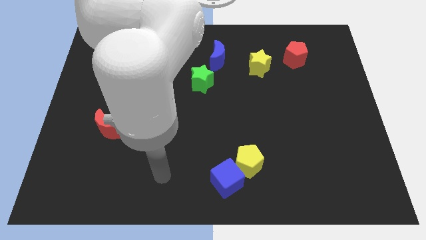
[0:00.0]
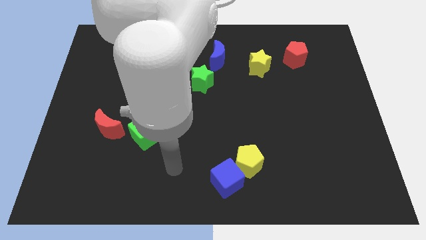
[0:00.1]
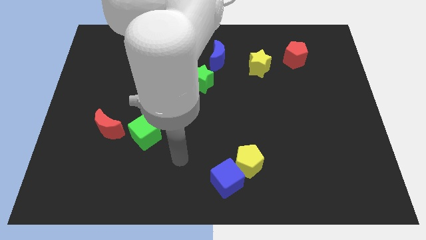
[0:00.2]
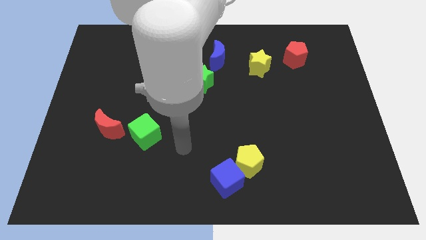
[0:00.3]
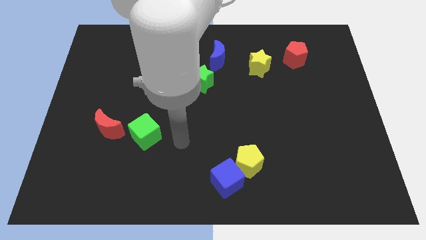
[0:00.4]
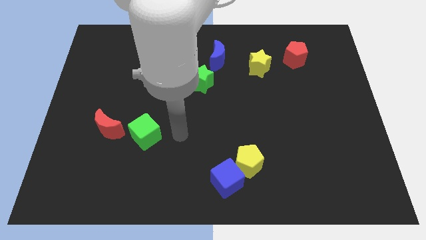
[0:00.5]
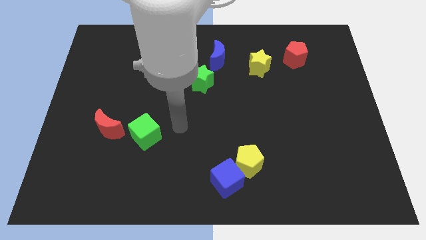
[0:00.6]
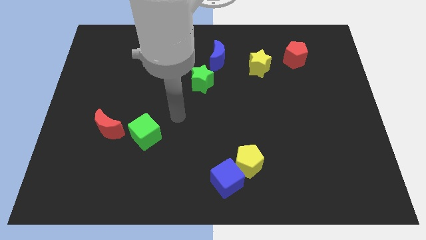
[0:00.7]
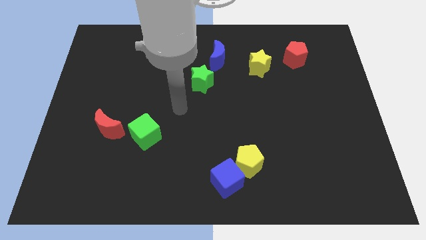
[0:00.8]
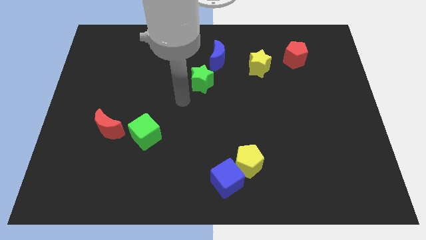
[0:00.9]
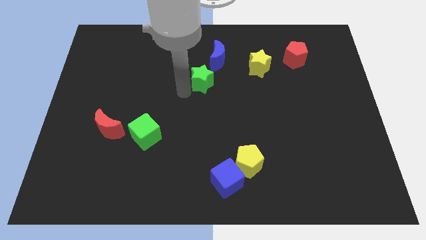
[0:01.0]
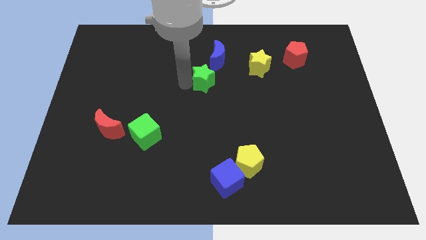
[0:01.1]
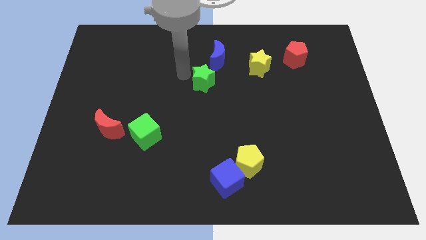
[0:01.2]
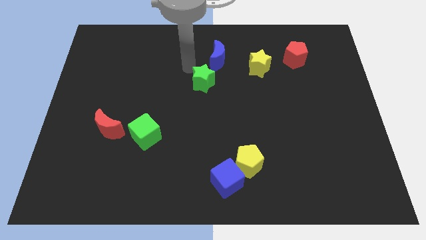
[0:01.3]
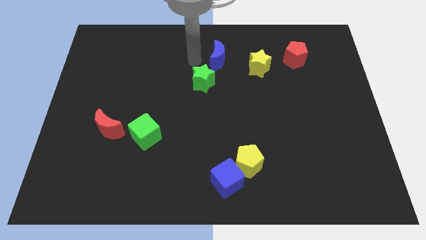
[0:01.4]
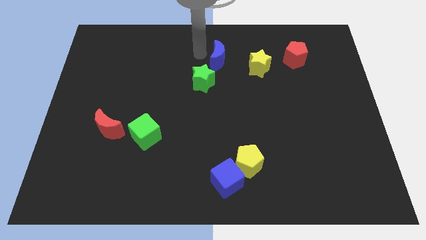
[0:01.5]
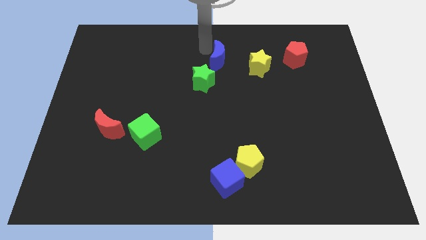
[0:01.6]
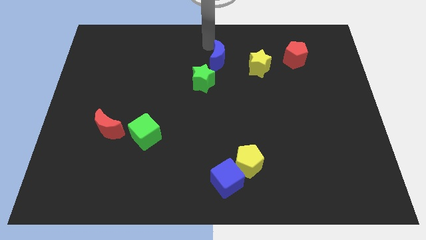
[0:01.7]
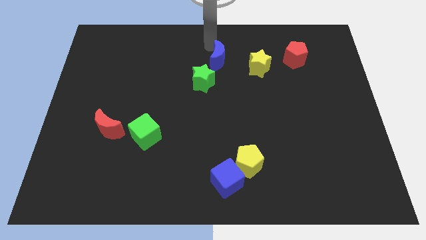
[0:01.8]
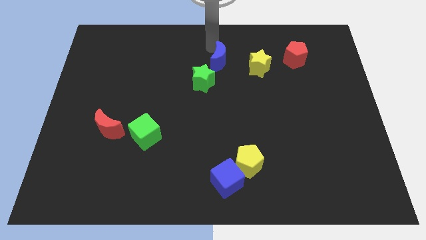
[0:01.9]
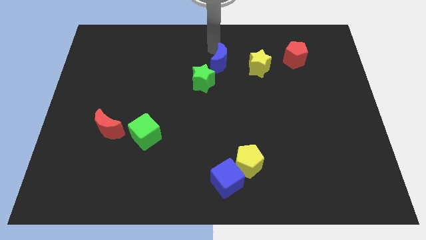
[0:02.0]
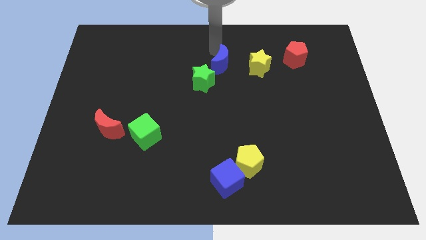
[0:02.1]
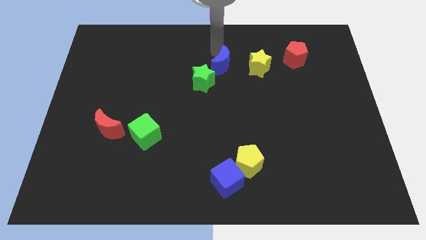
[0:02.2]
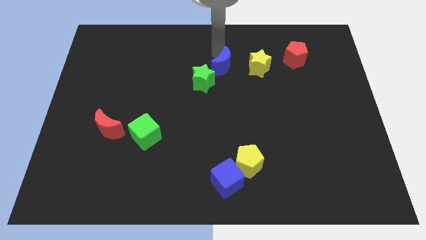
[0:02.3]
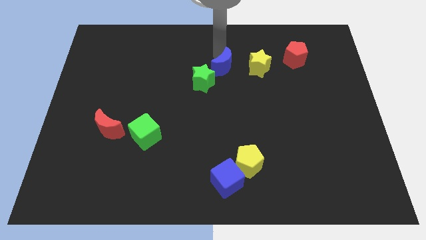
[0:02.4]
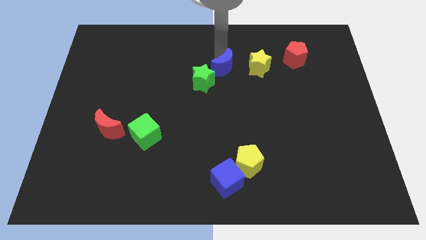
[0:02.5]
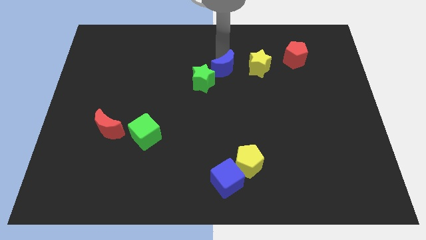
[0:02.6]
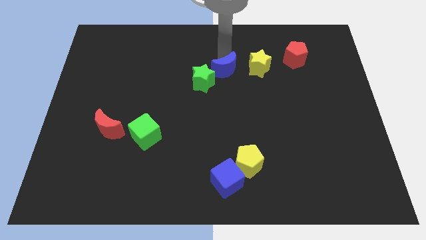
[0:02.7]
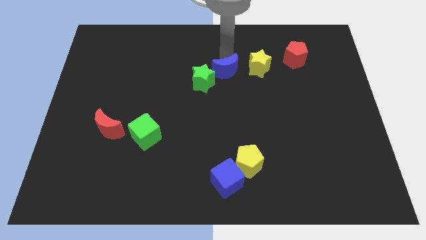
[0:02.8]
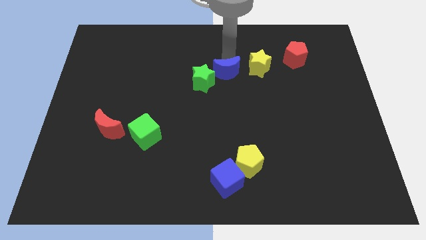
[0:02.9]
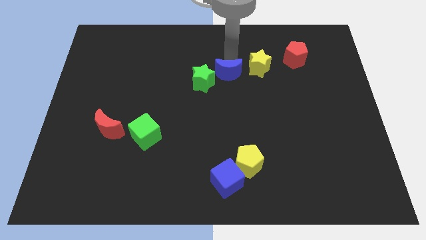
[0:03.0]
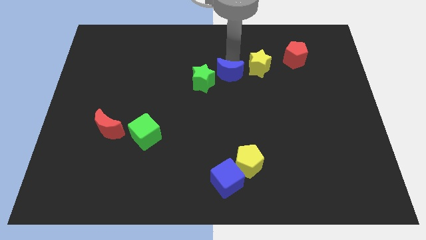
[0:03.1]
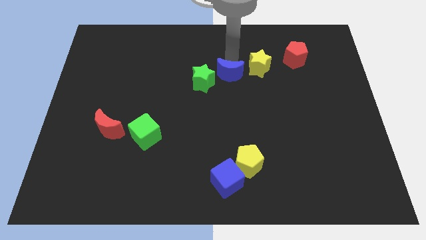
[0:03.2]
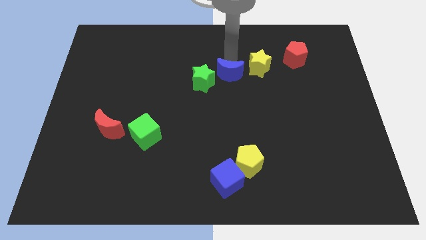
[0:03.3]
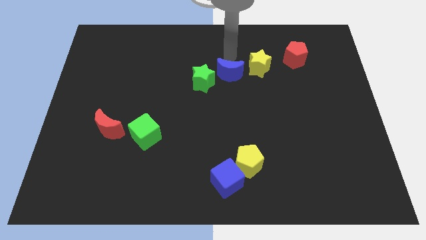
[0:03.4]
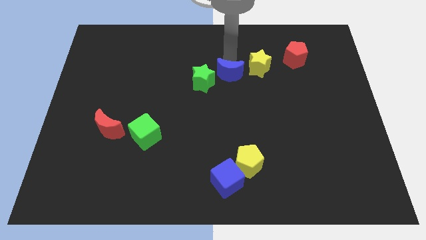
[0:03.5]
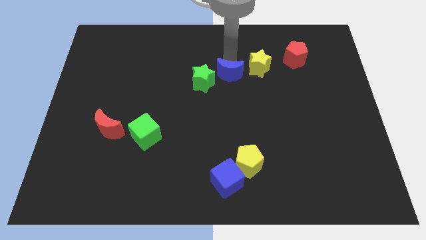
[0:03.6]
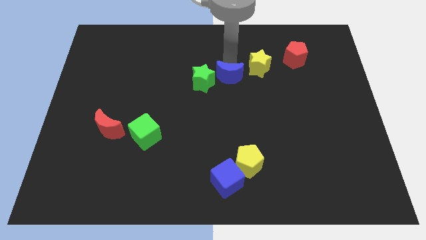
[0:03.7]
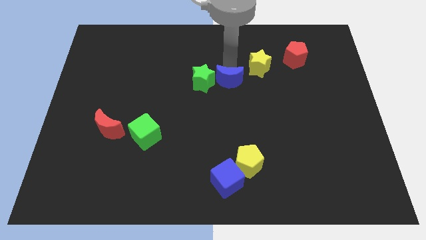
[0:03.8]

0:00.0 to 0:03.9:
slightly push the blue moon downwards

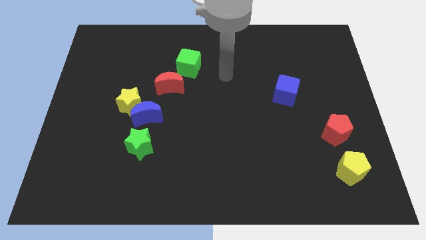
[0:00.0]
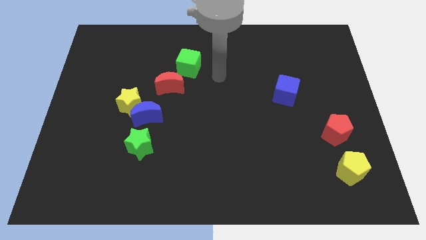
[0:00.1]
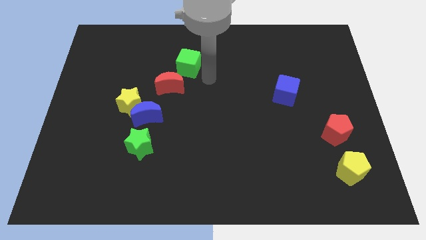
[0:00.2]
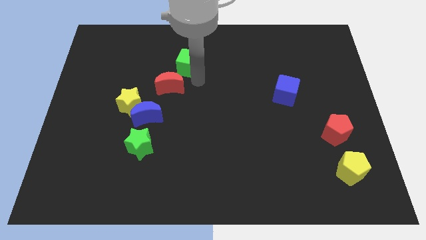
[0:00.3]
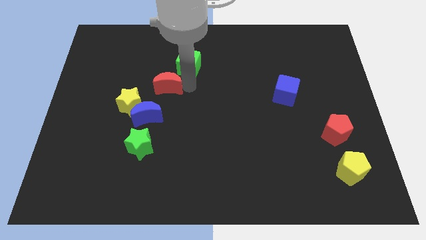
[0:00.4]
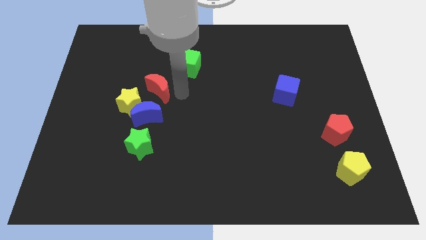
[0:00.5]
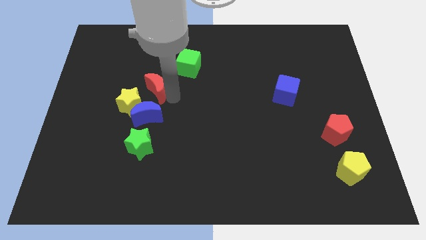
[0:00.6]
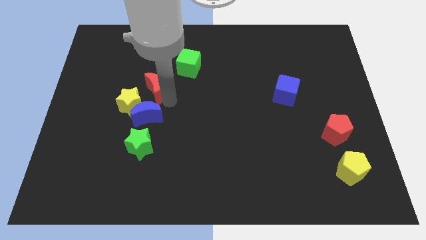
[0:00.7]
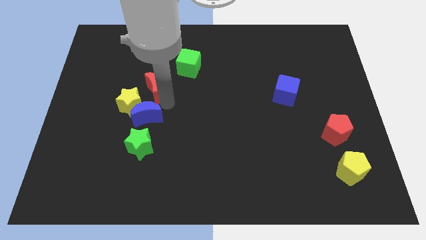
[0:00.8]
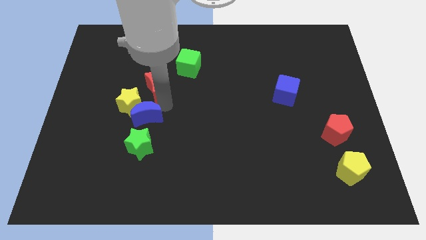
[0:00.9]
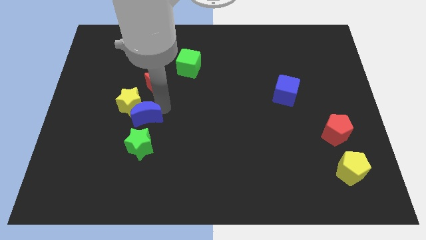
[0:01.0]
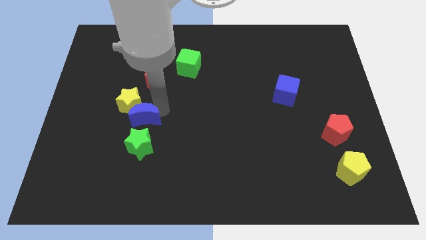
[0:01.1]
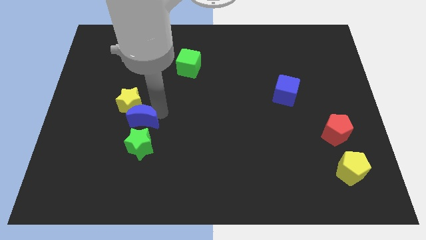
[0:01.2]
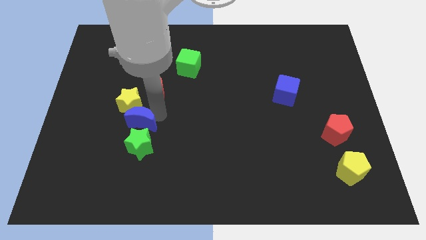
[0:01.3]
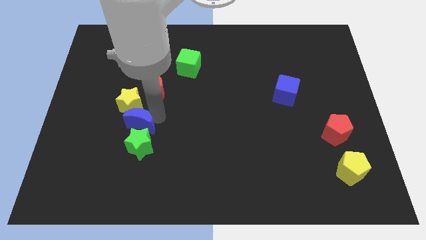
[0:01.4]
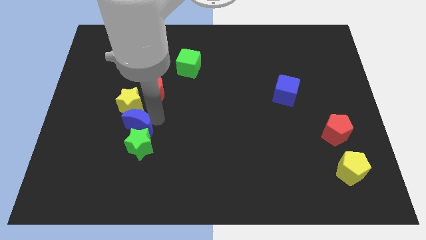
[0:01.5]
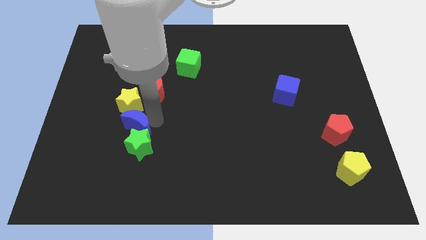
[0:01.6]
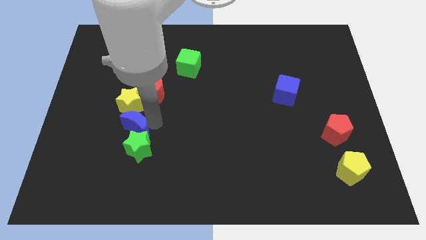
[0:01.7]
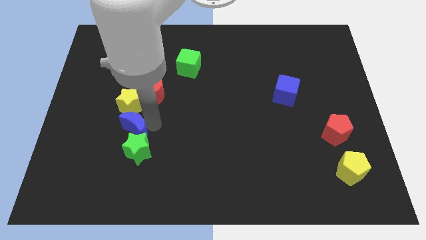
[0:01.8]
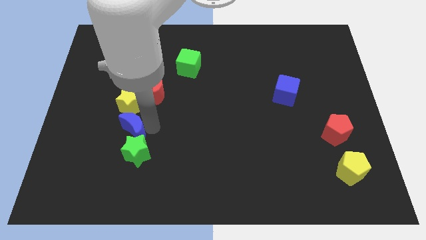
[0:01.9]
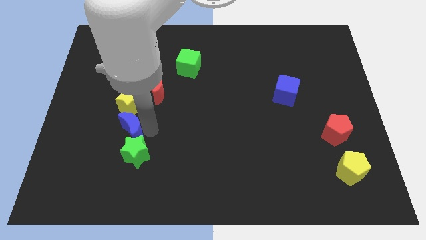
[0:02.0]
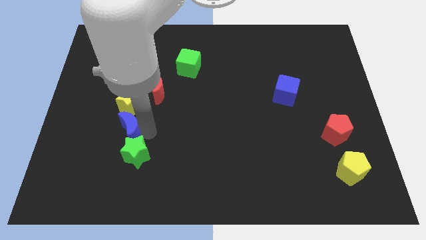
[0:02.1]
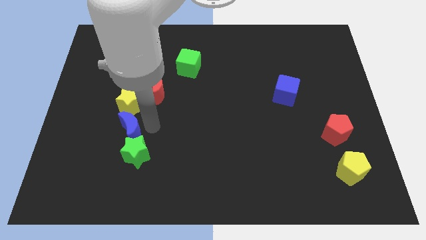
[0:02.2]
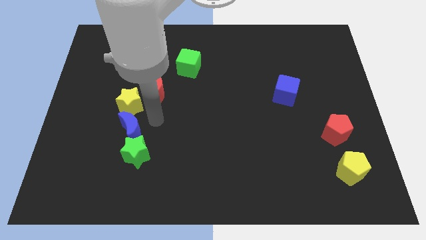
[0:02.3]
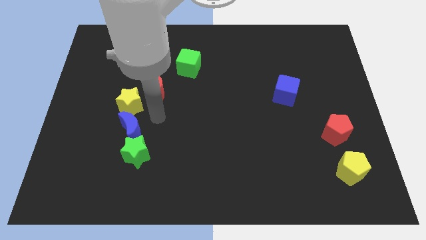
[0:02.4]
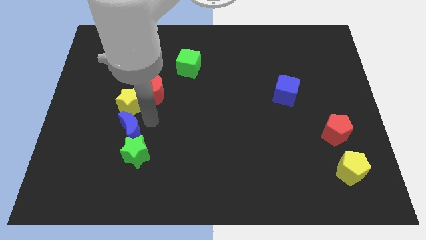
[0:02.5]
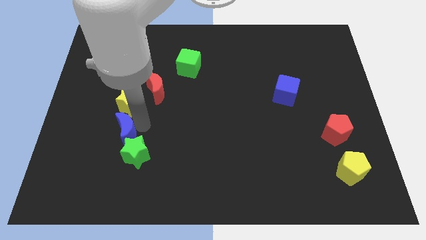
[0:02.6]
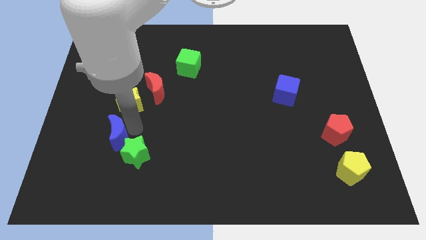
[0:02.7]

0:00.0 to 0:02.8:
move the blue moon down and then to the left a little bit

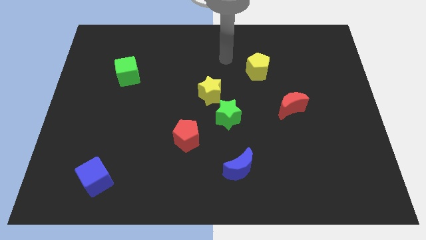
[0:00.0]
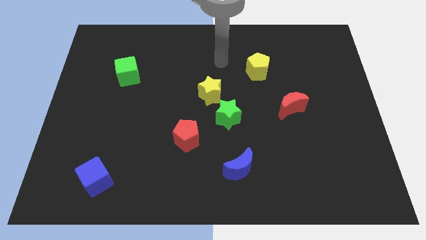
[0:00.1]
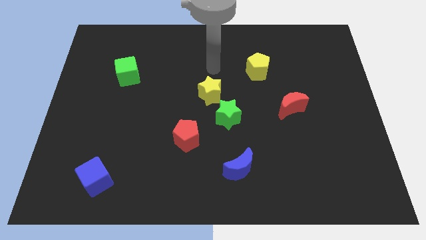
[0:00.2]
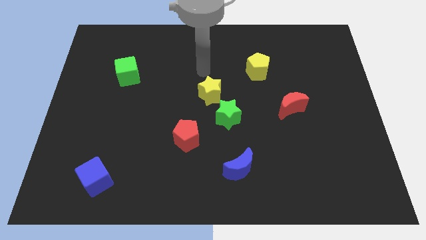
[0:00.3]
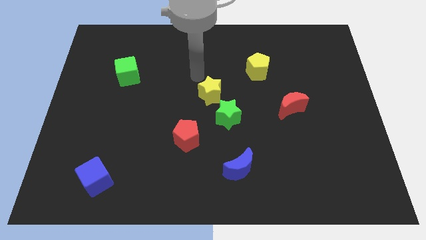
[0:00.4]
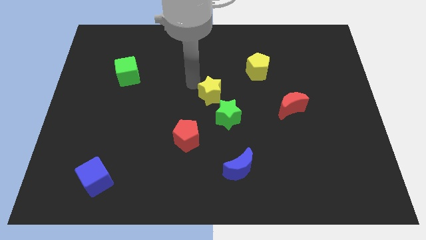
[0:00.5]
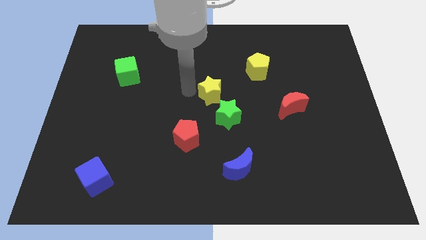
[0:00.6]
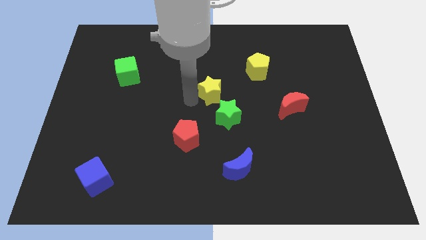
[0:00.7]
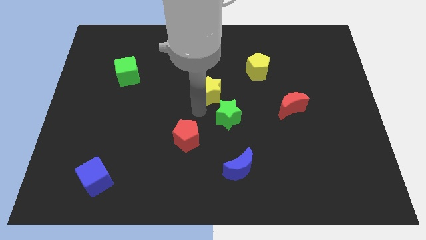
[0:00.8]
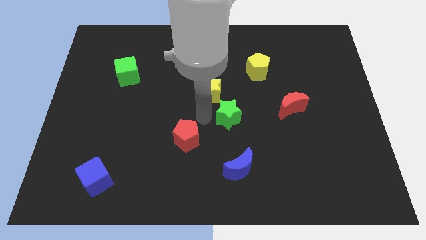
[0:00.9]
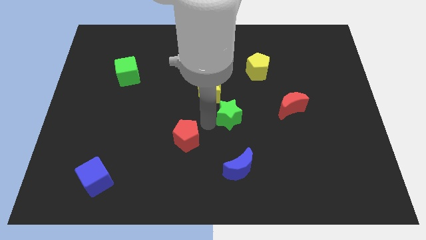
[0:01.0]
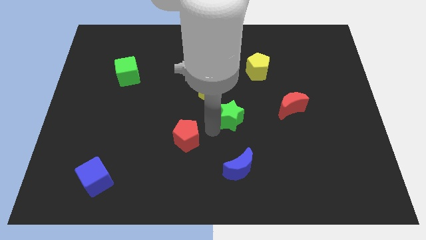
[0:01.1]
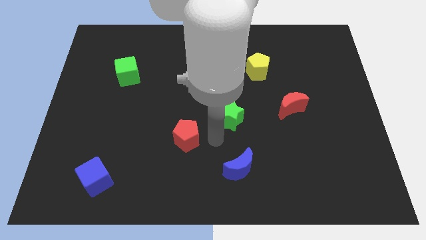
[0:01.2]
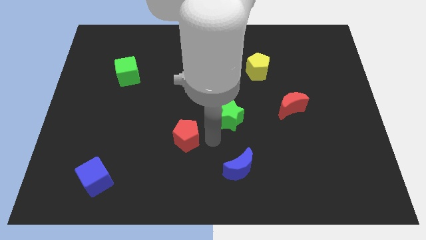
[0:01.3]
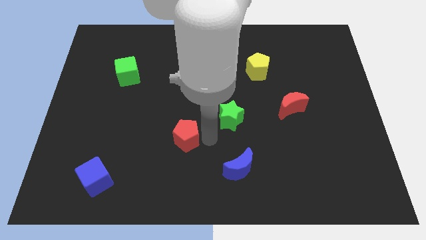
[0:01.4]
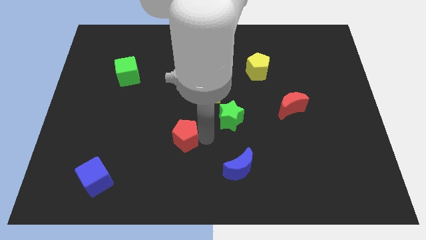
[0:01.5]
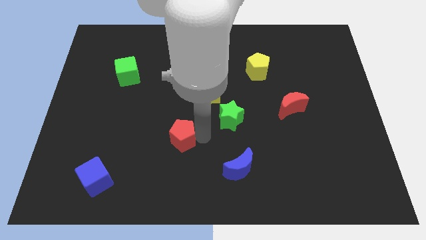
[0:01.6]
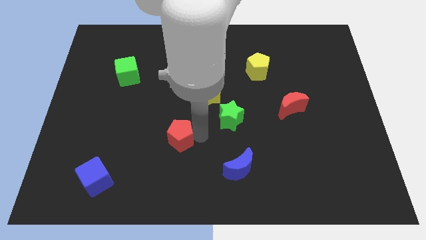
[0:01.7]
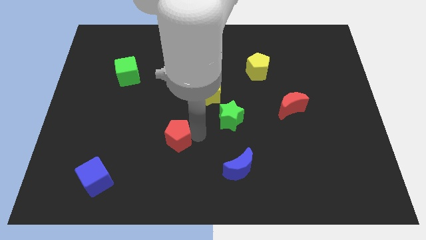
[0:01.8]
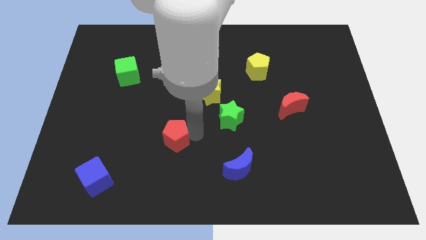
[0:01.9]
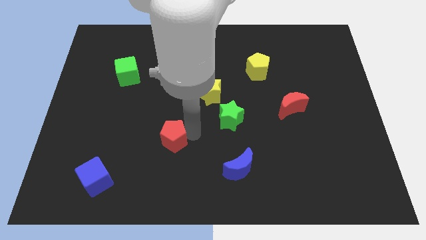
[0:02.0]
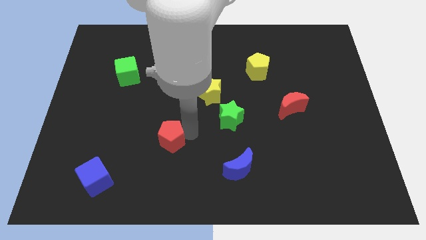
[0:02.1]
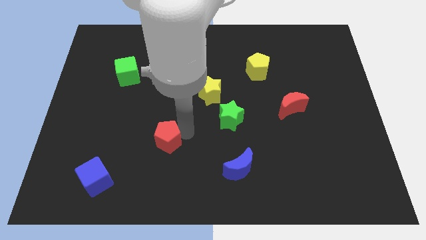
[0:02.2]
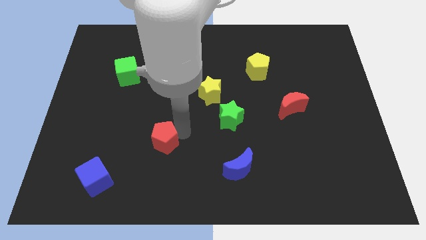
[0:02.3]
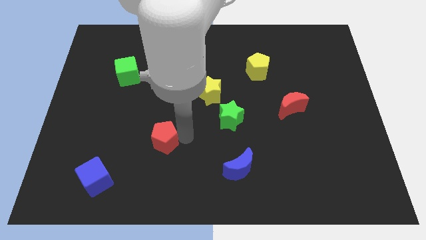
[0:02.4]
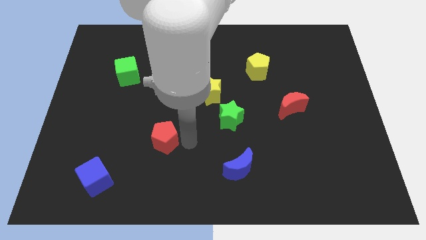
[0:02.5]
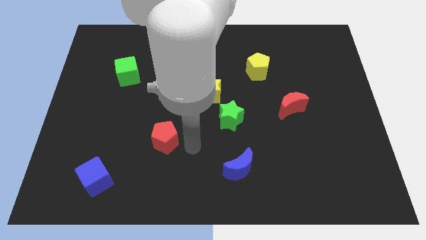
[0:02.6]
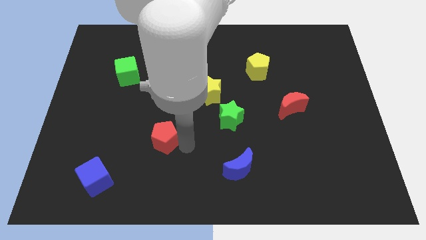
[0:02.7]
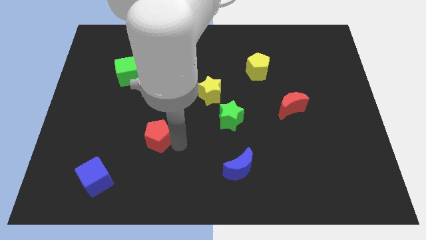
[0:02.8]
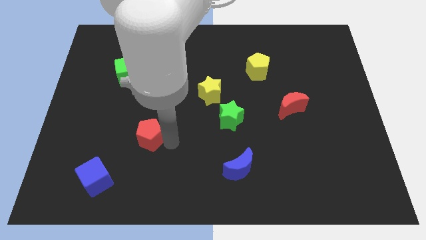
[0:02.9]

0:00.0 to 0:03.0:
move the red pentagon somewhat to the left
